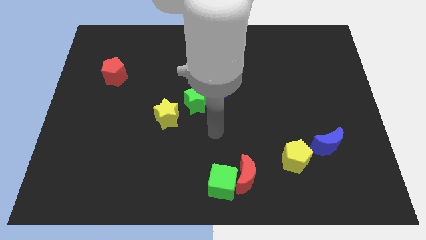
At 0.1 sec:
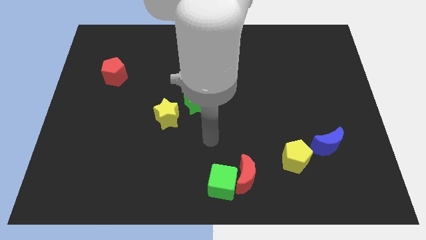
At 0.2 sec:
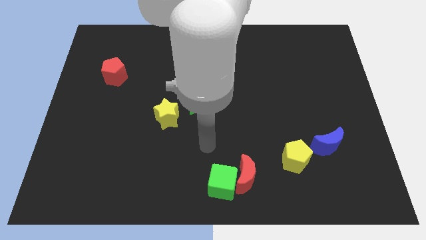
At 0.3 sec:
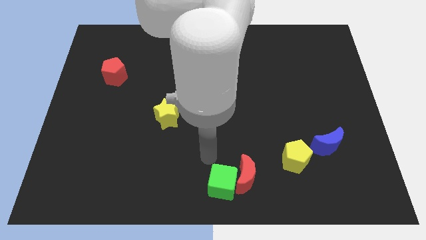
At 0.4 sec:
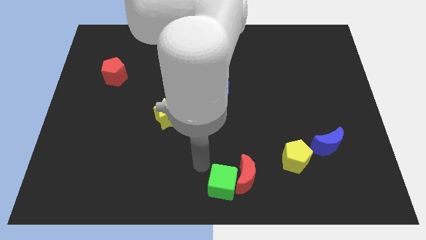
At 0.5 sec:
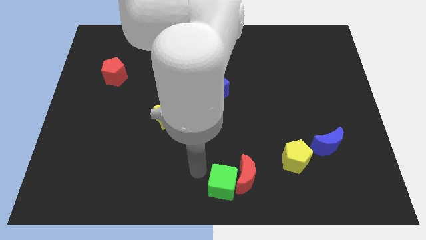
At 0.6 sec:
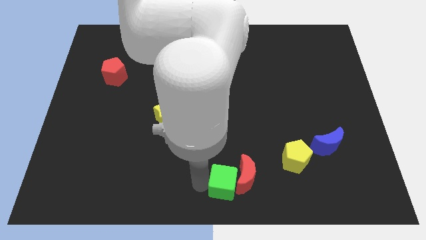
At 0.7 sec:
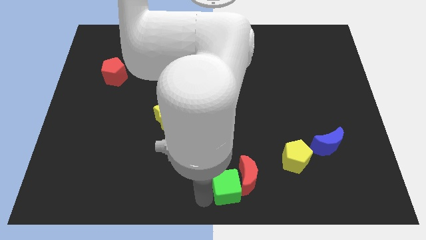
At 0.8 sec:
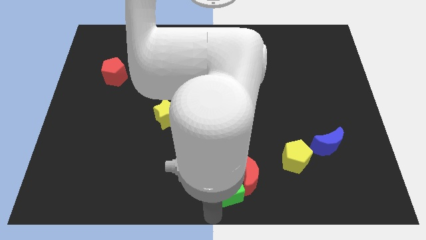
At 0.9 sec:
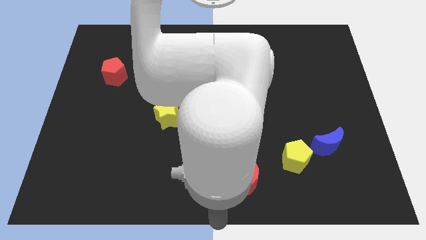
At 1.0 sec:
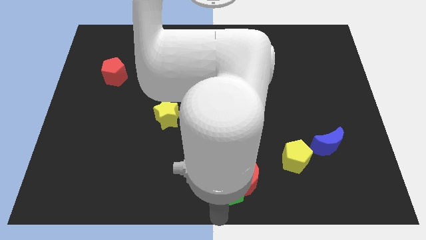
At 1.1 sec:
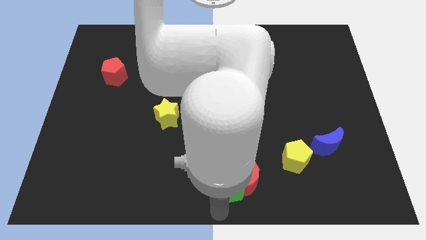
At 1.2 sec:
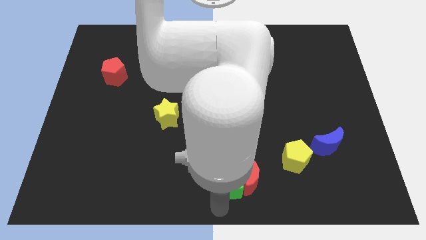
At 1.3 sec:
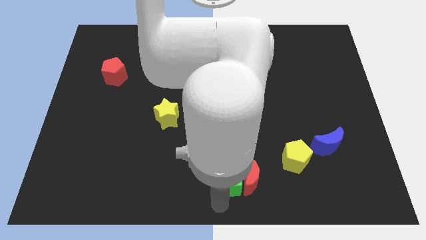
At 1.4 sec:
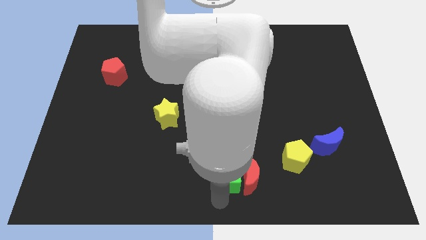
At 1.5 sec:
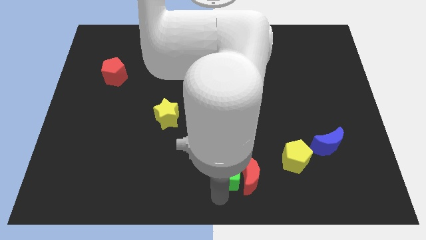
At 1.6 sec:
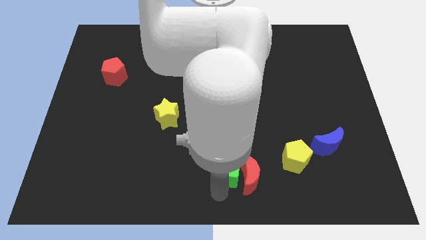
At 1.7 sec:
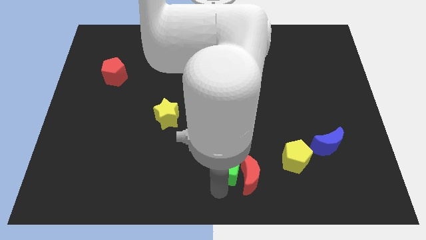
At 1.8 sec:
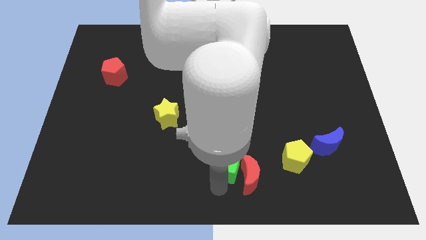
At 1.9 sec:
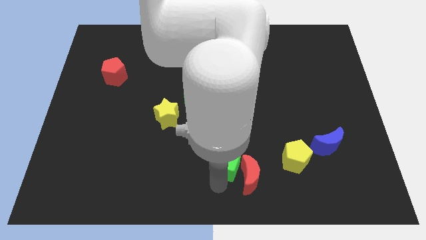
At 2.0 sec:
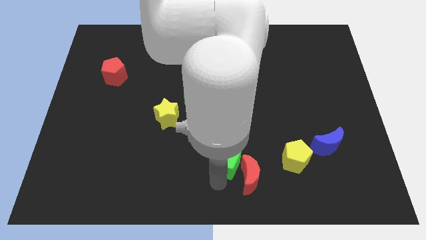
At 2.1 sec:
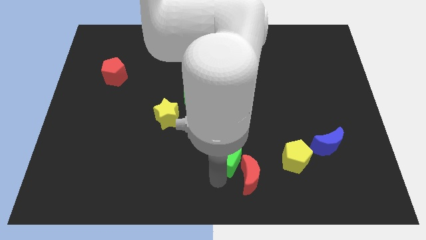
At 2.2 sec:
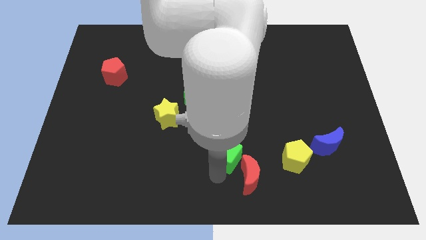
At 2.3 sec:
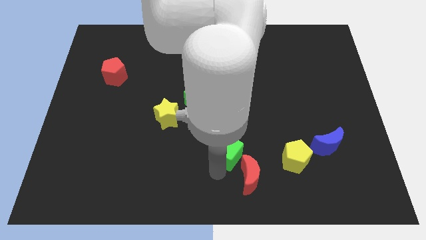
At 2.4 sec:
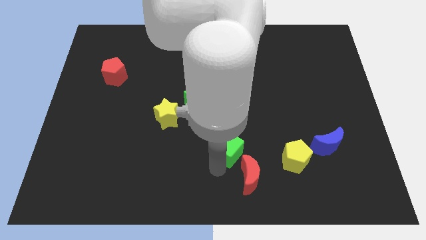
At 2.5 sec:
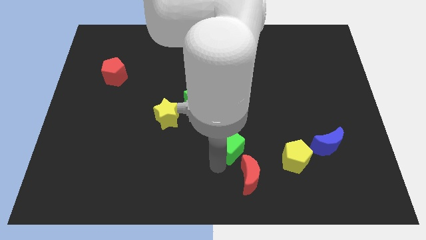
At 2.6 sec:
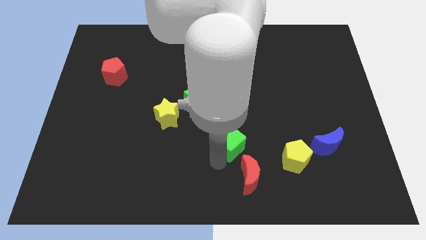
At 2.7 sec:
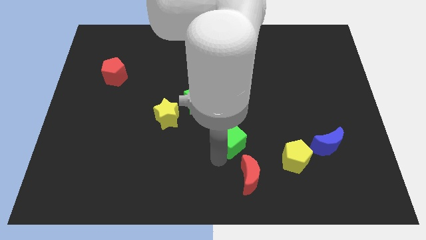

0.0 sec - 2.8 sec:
slide the green cube diagonally up and to the right a little bit

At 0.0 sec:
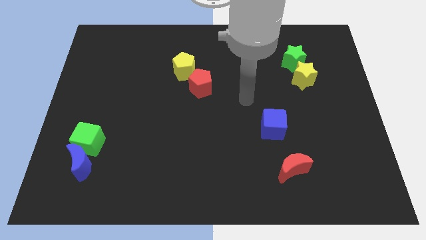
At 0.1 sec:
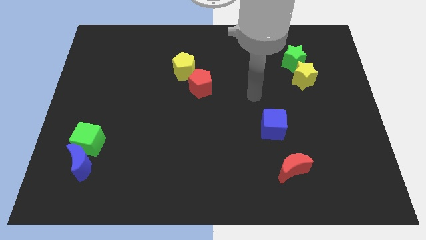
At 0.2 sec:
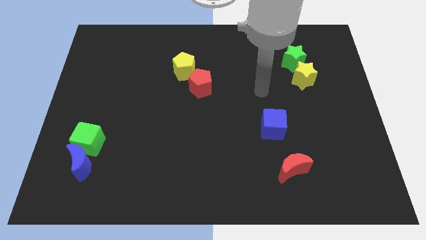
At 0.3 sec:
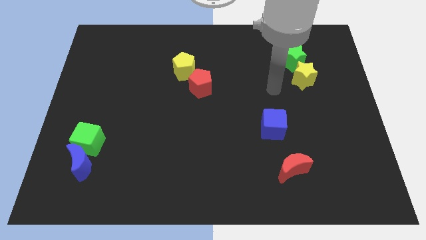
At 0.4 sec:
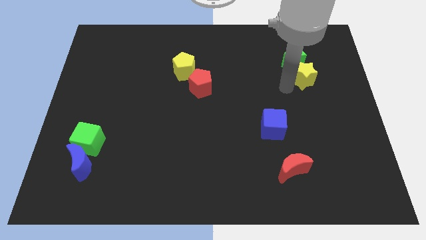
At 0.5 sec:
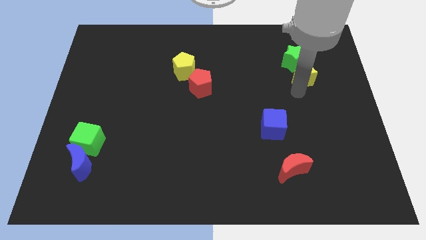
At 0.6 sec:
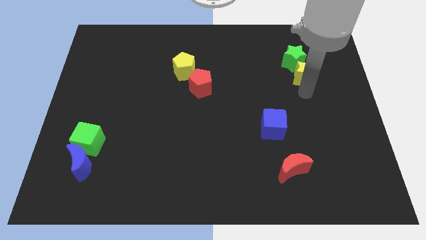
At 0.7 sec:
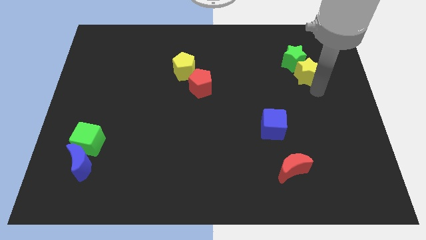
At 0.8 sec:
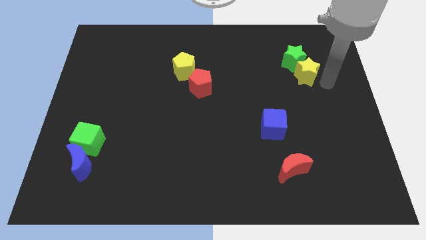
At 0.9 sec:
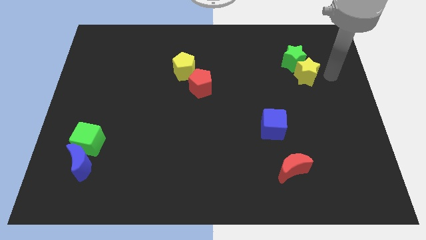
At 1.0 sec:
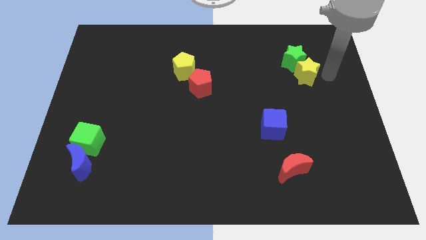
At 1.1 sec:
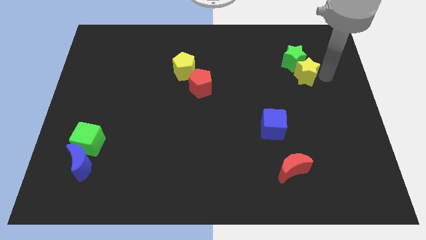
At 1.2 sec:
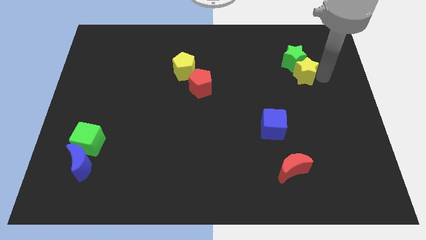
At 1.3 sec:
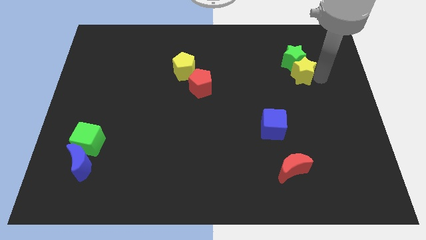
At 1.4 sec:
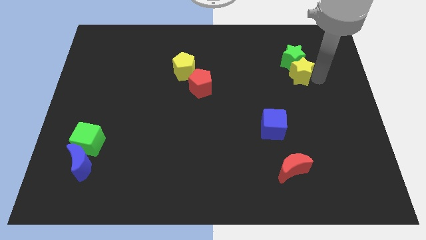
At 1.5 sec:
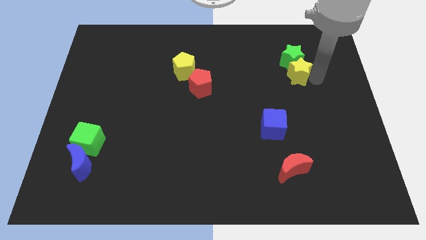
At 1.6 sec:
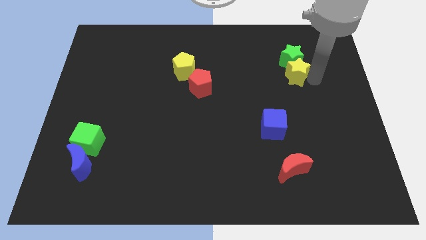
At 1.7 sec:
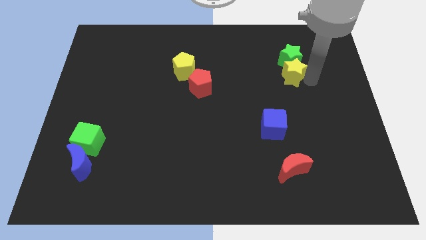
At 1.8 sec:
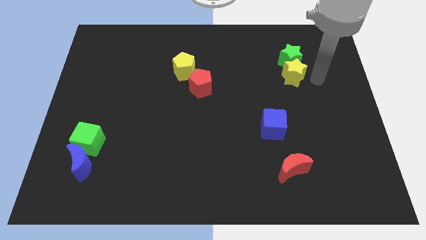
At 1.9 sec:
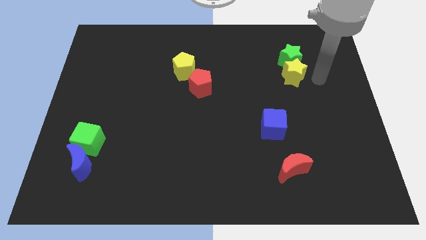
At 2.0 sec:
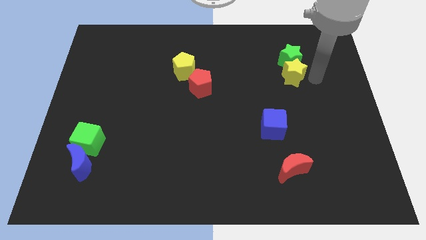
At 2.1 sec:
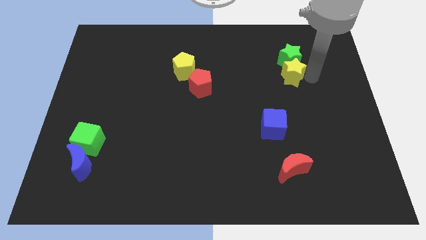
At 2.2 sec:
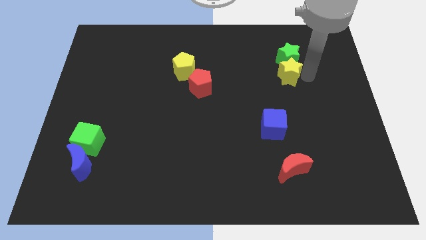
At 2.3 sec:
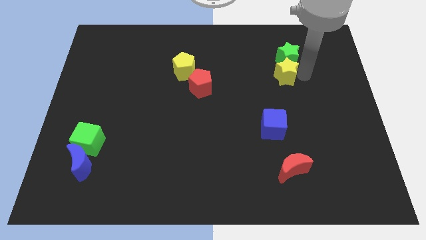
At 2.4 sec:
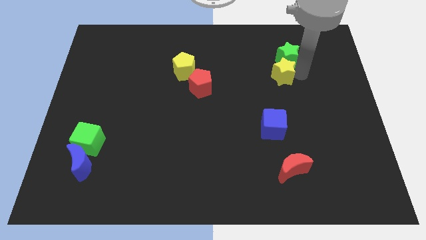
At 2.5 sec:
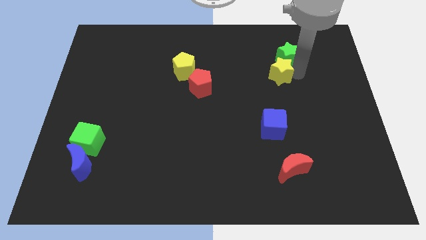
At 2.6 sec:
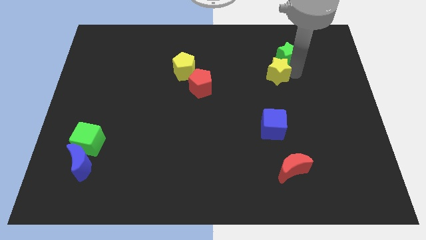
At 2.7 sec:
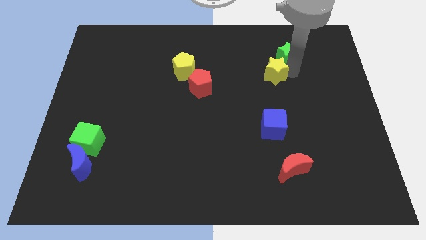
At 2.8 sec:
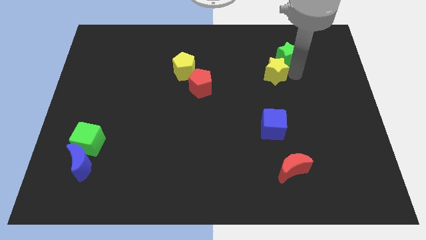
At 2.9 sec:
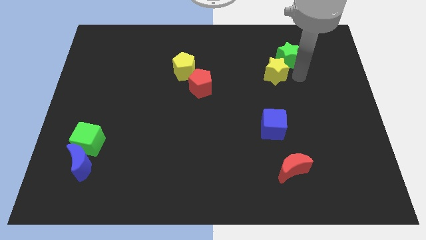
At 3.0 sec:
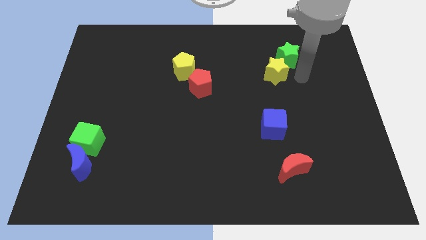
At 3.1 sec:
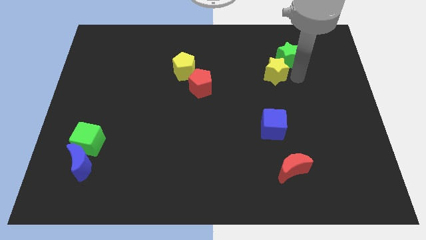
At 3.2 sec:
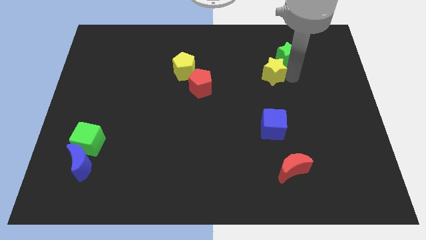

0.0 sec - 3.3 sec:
slightly move the yellow star to the left

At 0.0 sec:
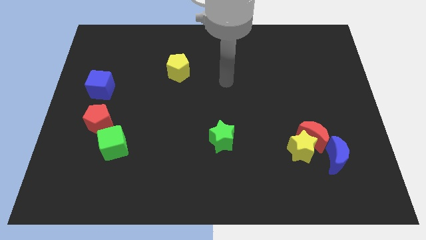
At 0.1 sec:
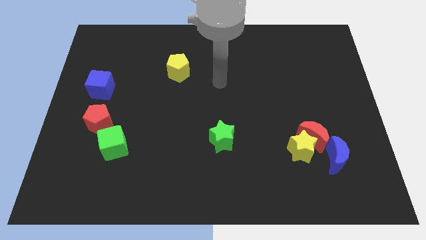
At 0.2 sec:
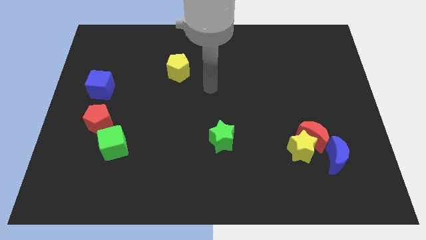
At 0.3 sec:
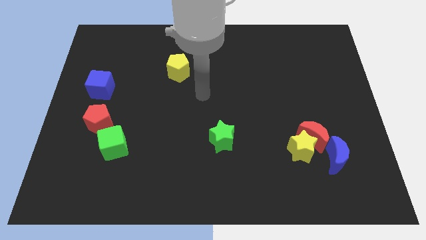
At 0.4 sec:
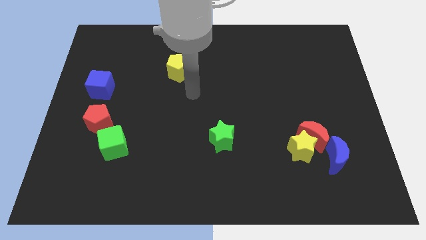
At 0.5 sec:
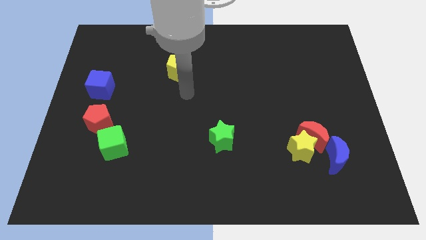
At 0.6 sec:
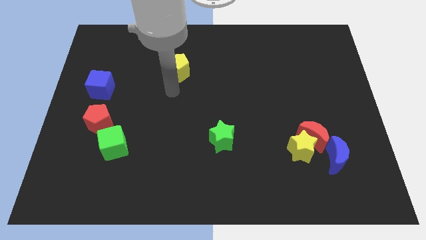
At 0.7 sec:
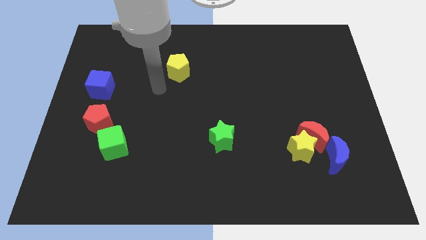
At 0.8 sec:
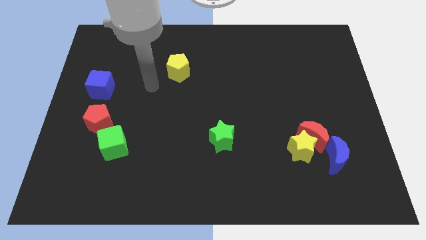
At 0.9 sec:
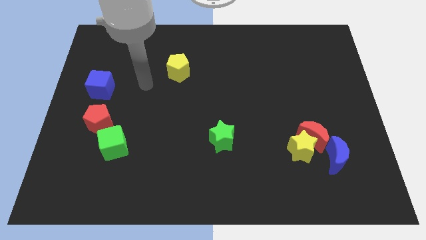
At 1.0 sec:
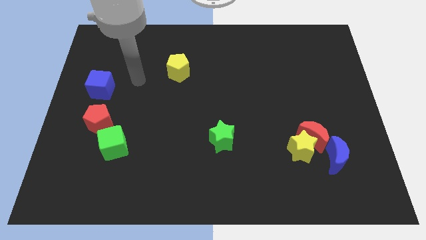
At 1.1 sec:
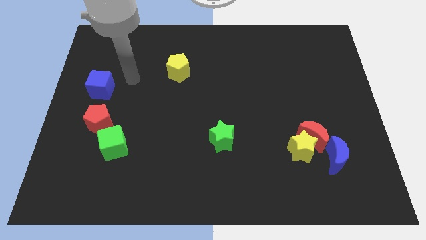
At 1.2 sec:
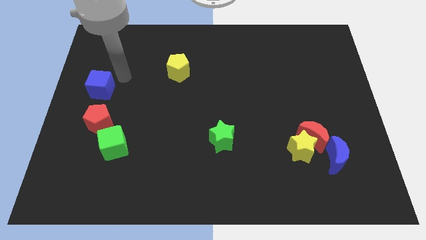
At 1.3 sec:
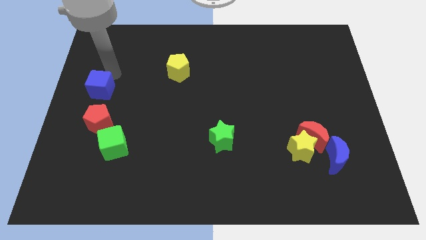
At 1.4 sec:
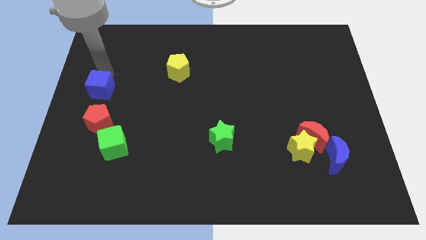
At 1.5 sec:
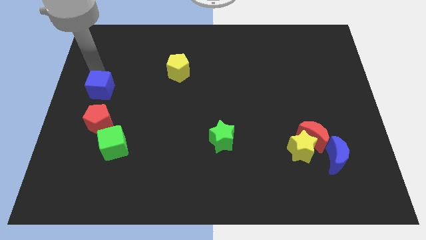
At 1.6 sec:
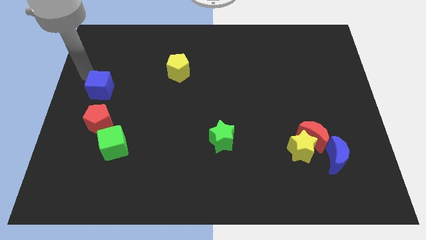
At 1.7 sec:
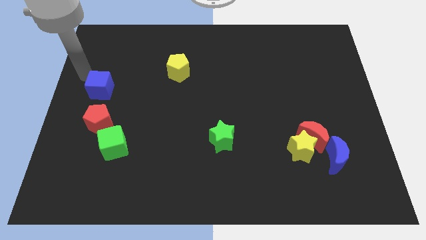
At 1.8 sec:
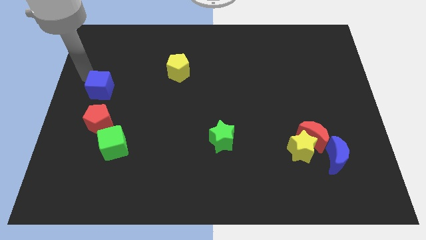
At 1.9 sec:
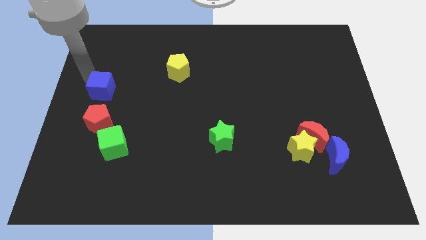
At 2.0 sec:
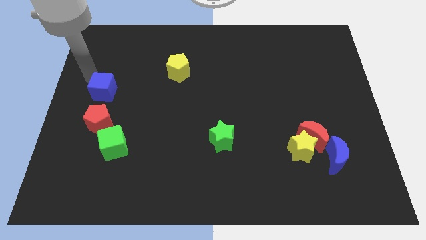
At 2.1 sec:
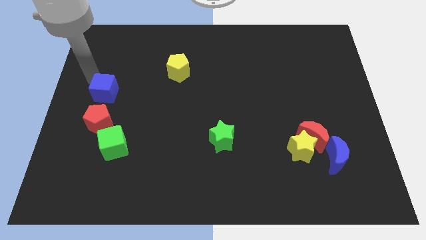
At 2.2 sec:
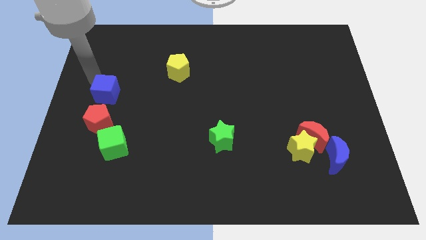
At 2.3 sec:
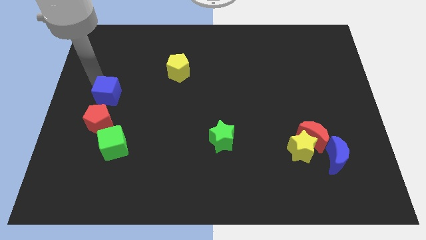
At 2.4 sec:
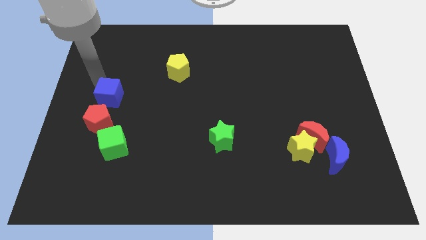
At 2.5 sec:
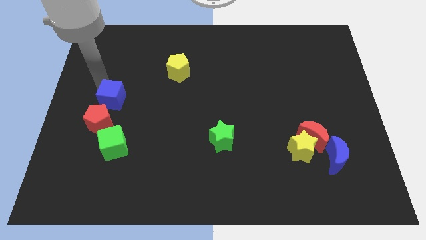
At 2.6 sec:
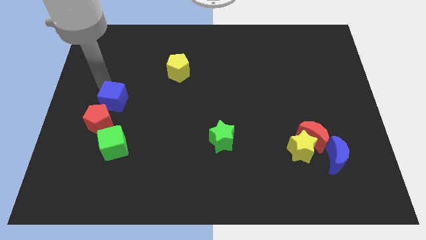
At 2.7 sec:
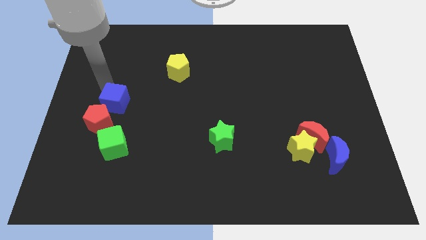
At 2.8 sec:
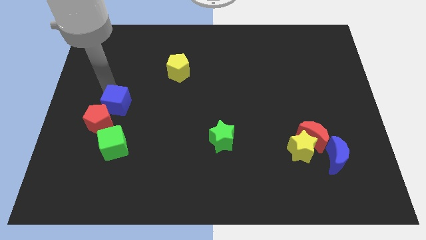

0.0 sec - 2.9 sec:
move the blue cube a little bit downwards and to the right
